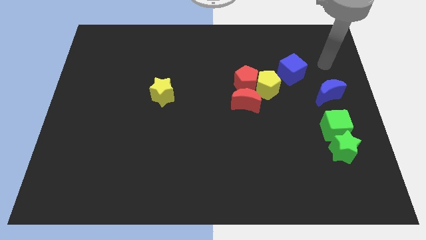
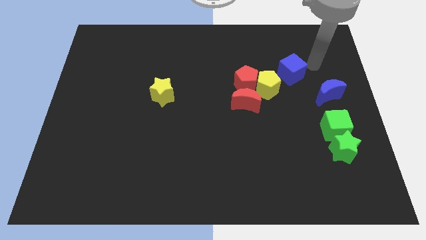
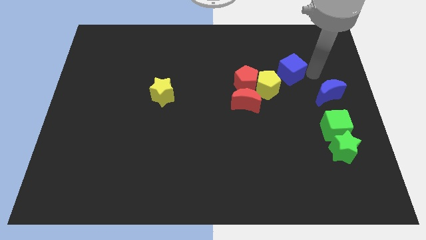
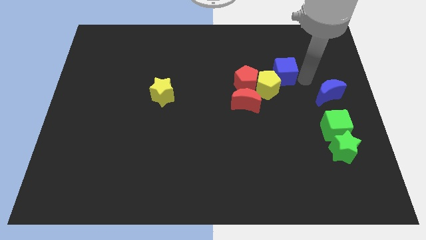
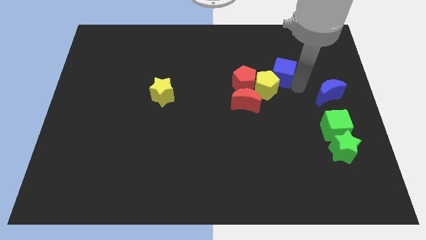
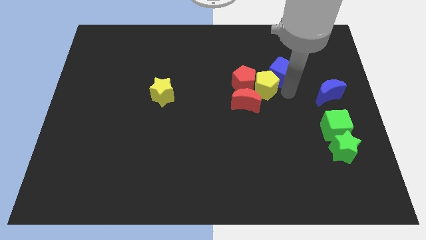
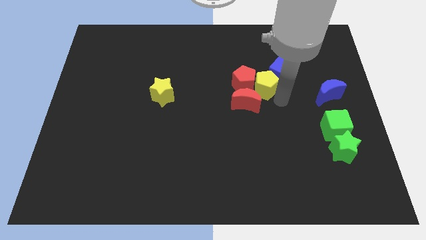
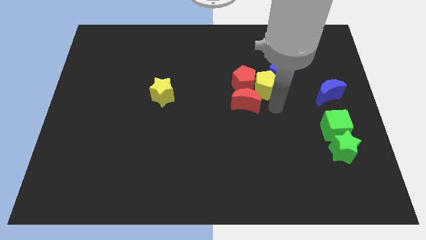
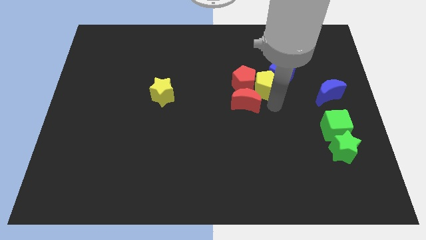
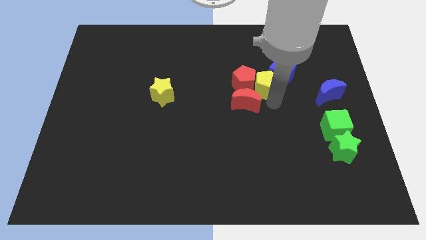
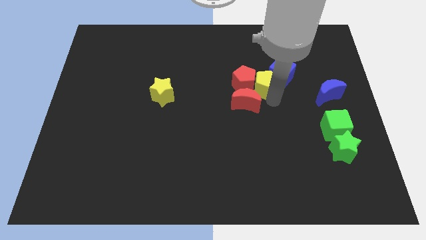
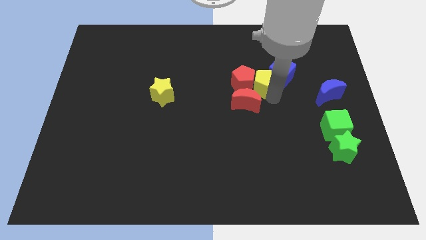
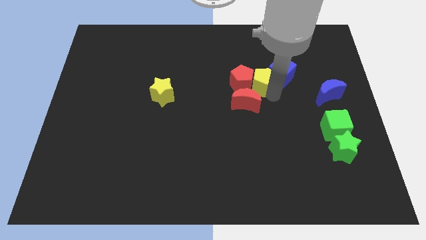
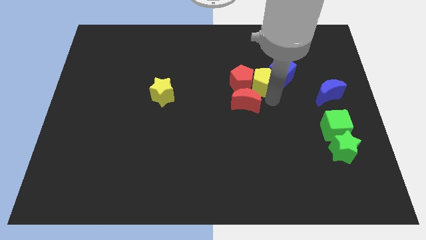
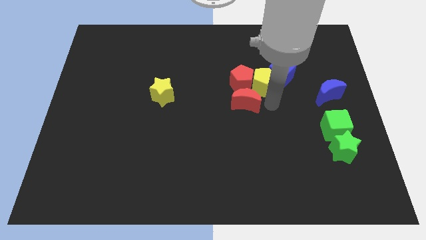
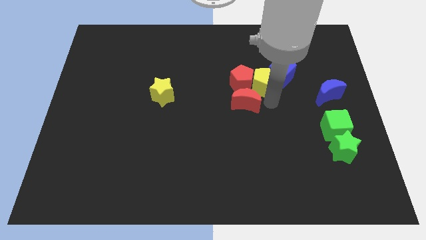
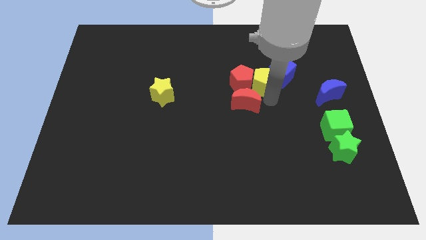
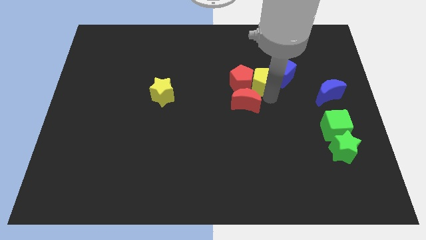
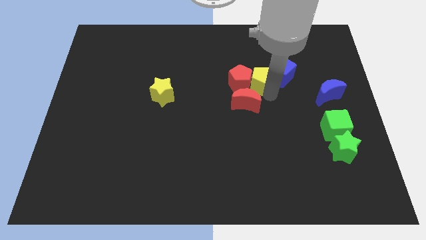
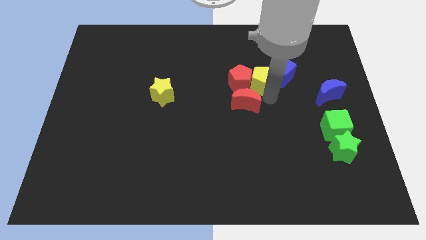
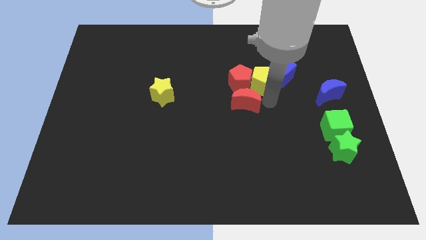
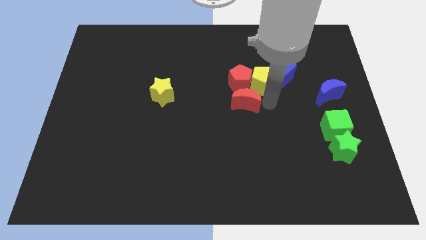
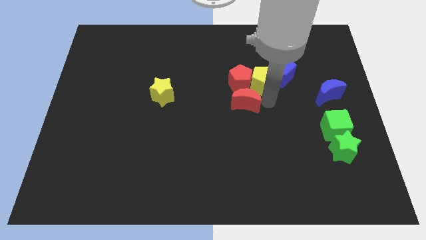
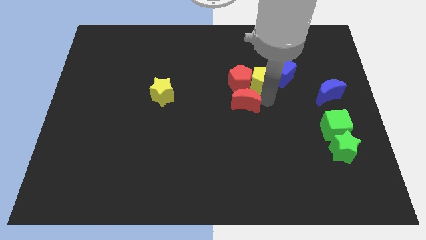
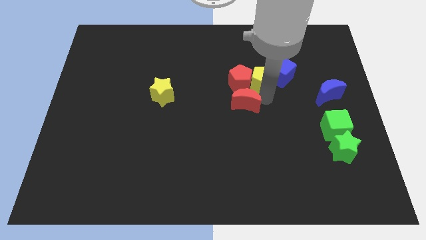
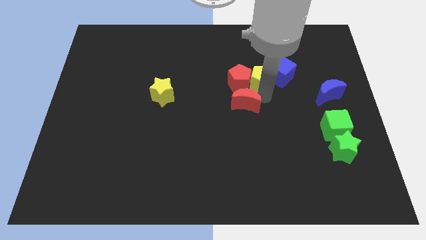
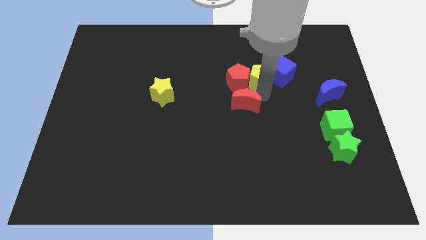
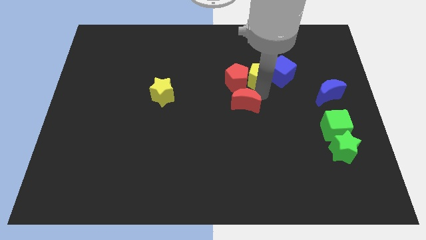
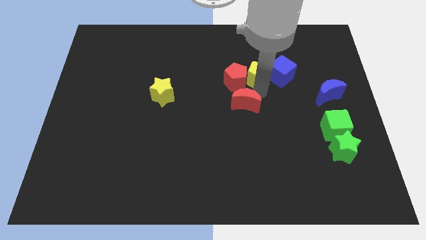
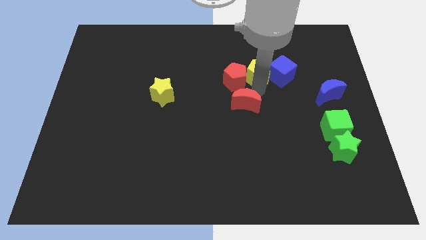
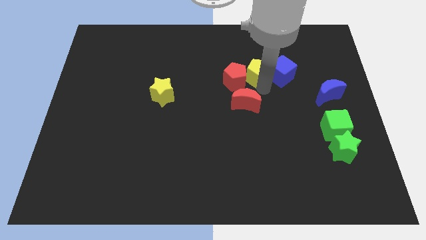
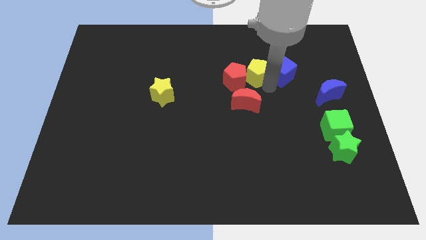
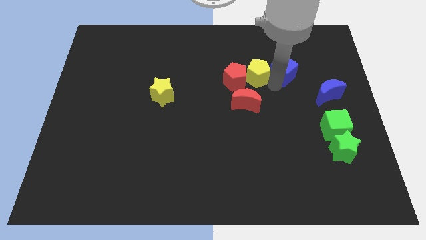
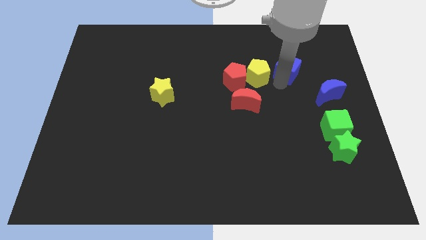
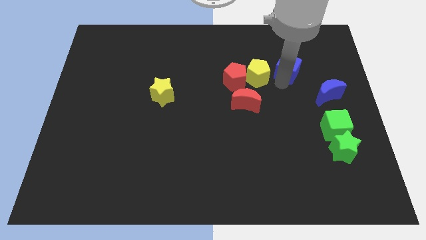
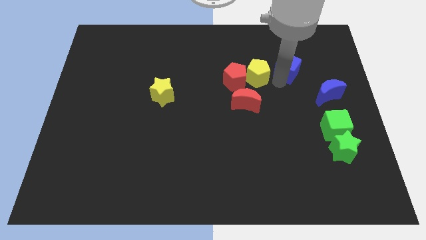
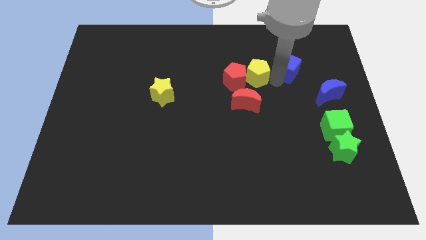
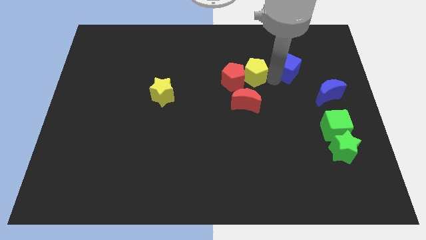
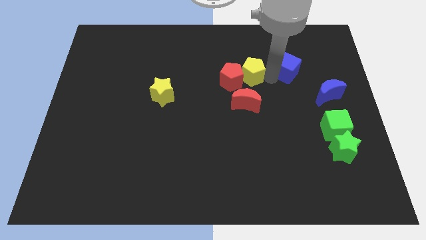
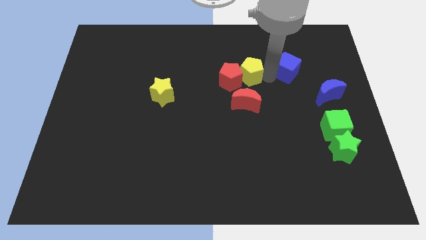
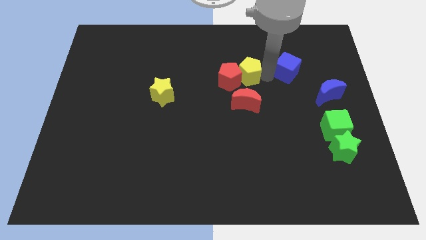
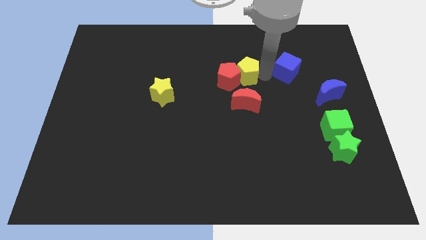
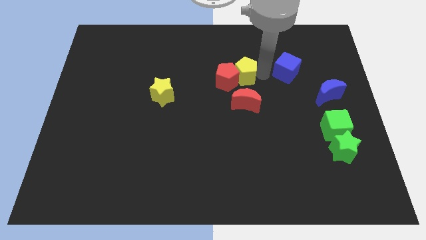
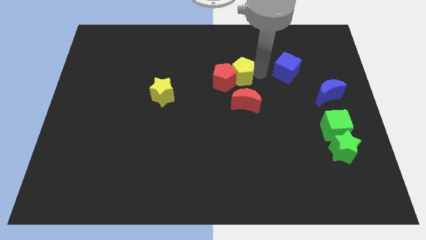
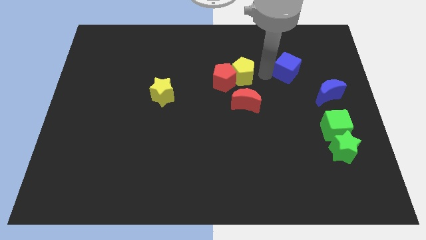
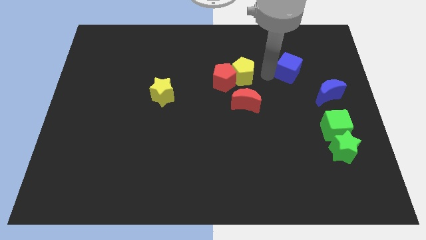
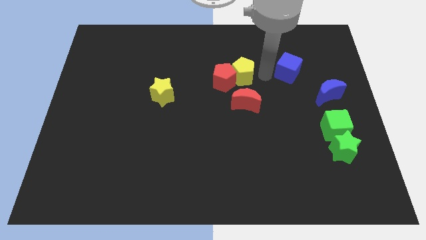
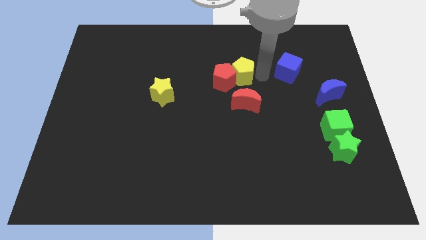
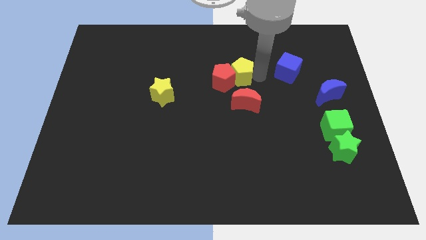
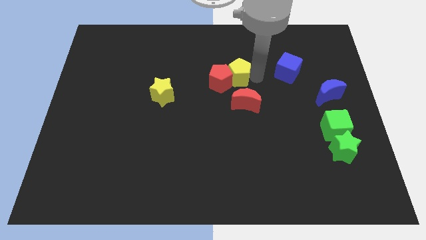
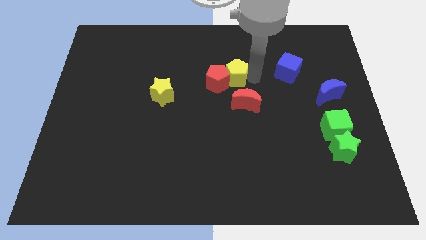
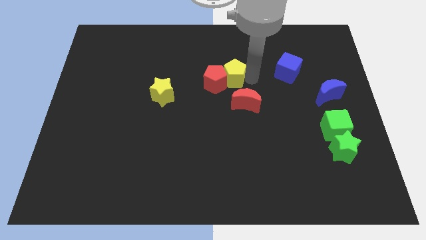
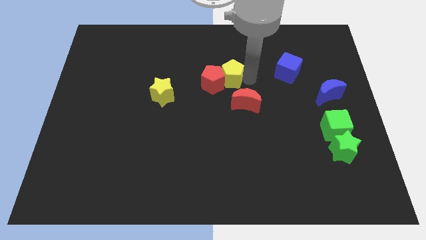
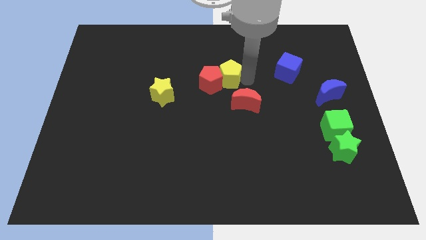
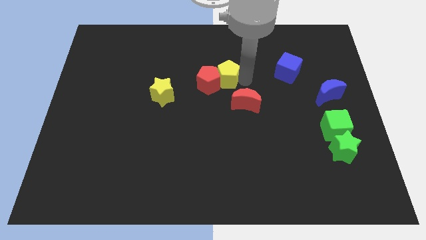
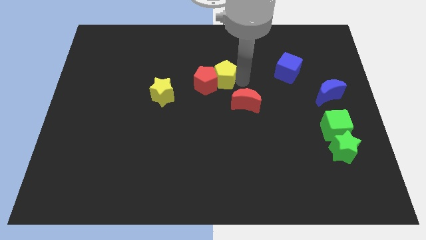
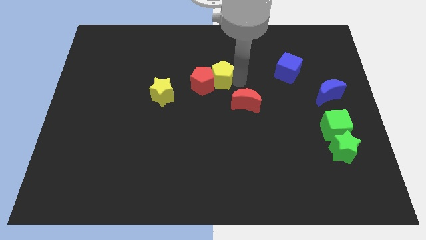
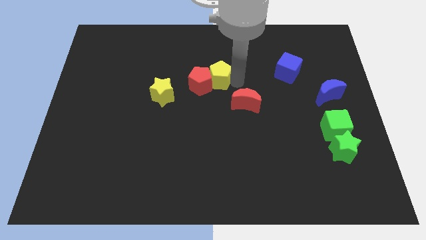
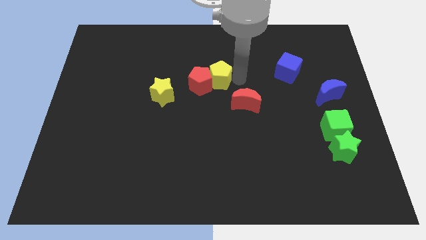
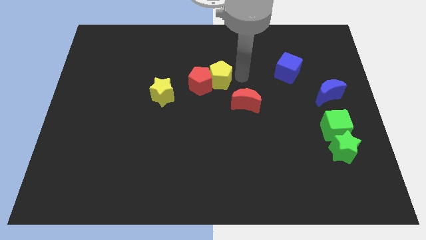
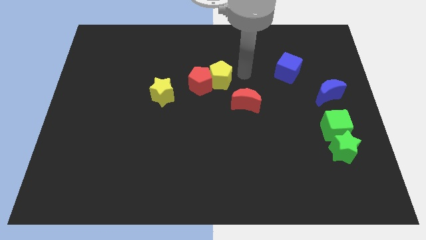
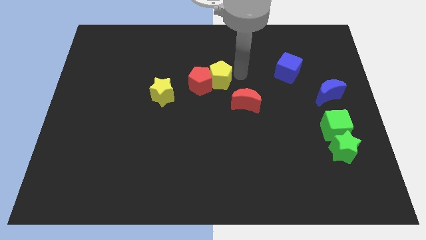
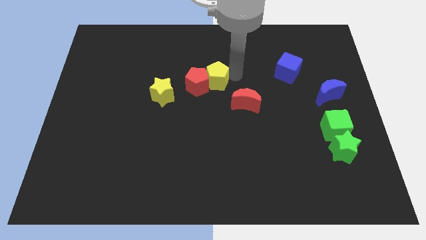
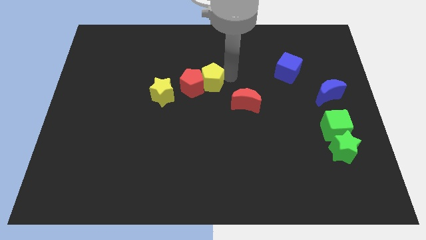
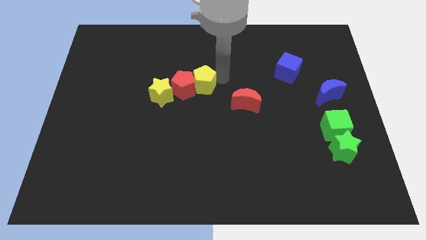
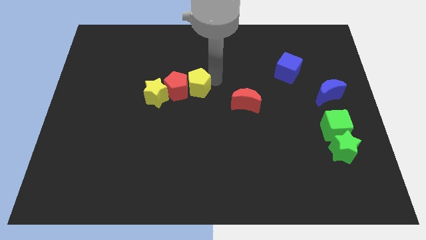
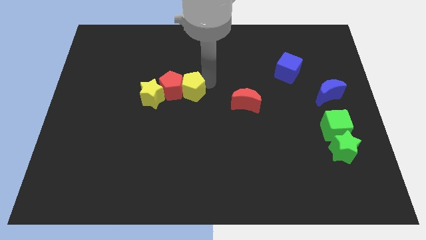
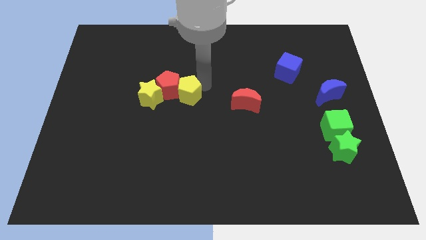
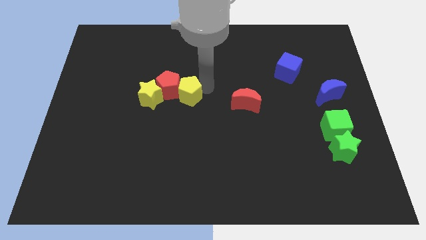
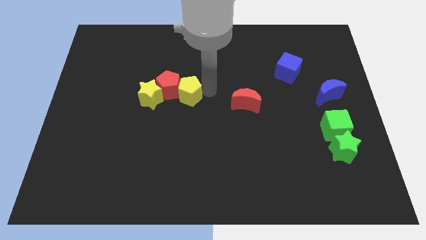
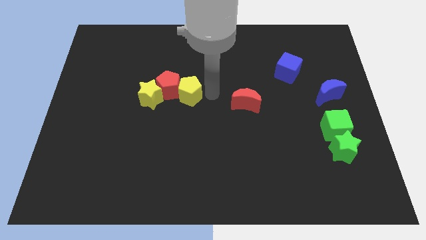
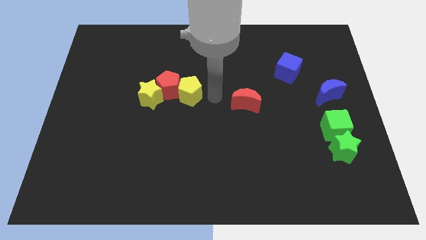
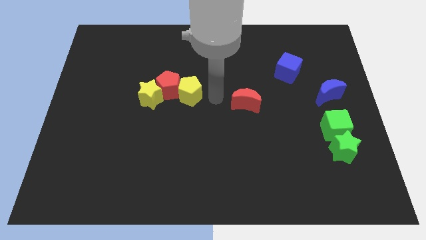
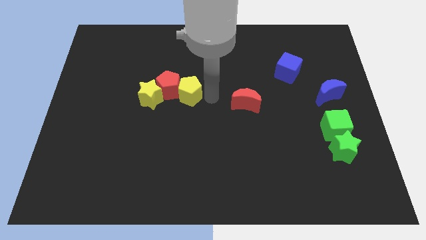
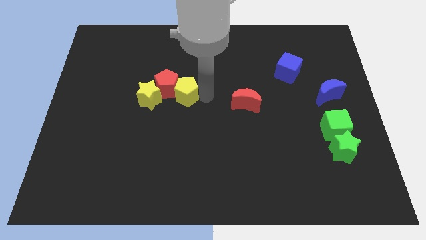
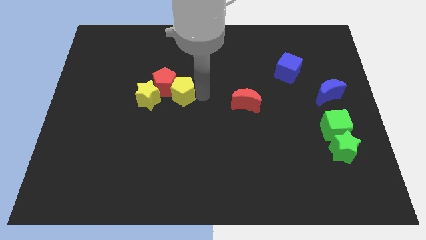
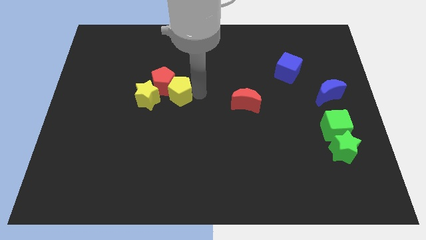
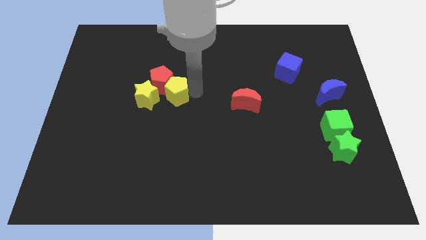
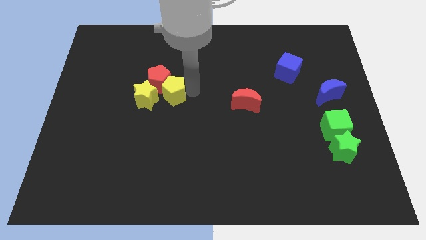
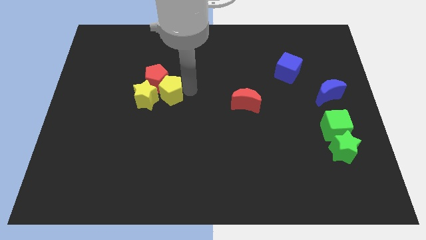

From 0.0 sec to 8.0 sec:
slide the yellow pentagon close to the yellow star
